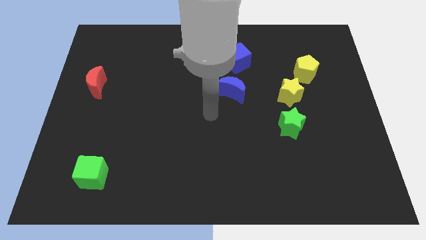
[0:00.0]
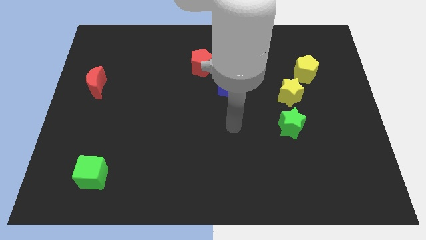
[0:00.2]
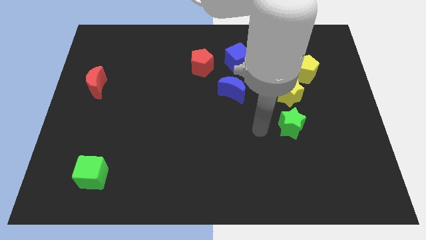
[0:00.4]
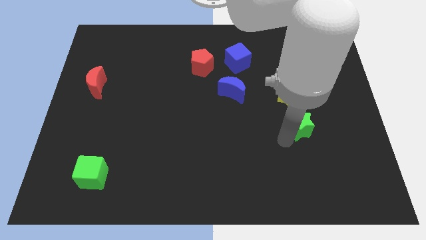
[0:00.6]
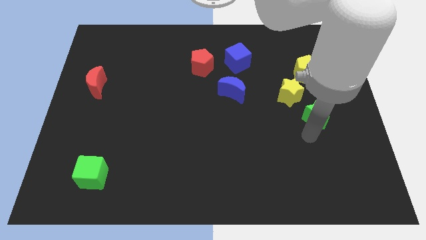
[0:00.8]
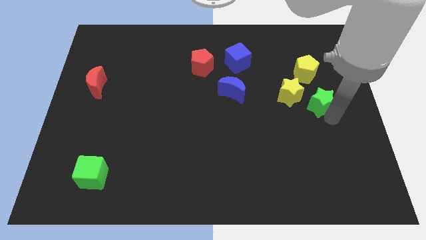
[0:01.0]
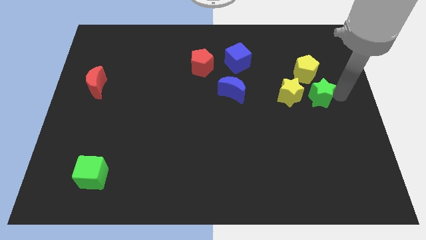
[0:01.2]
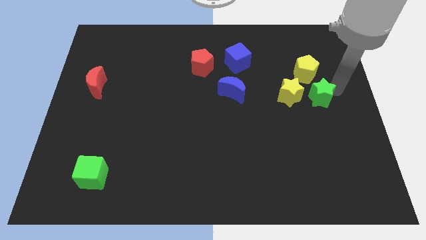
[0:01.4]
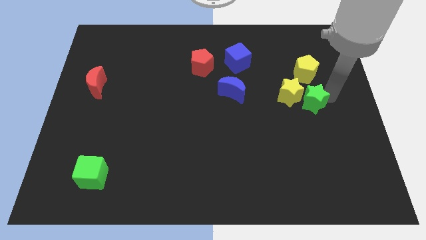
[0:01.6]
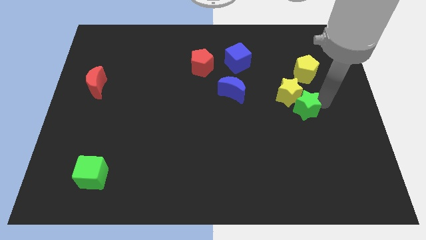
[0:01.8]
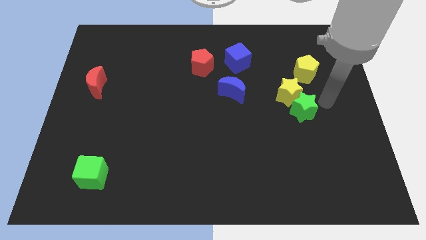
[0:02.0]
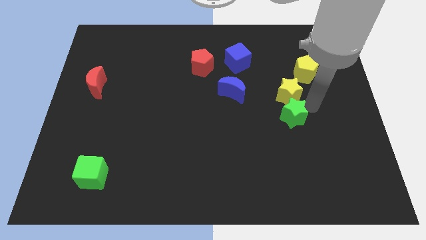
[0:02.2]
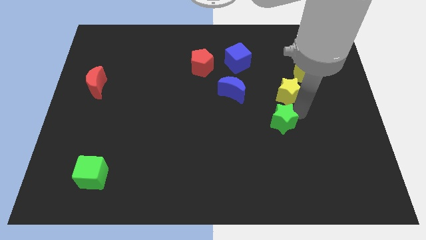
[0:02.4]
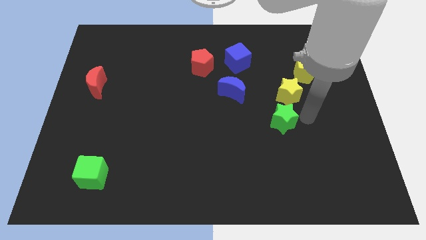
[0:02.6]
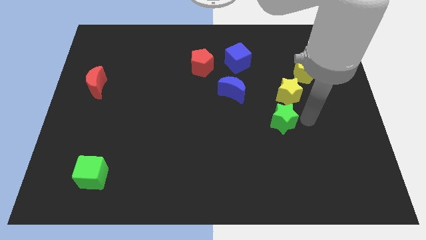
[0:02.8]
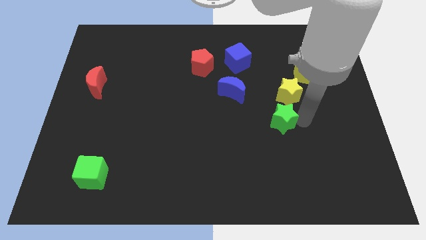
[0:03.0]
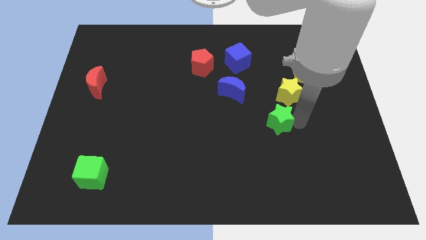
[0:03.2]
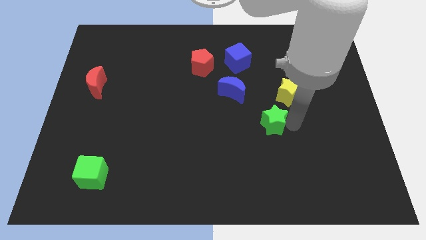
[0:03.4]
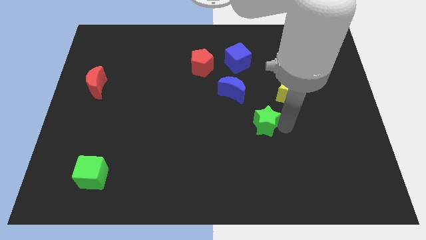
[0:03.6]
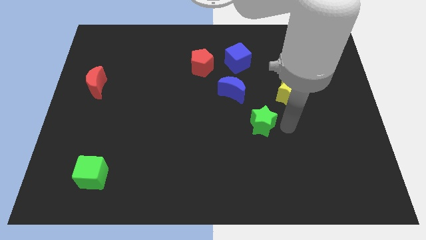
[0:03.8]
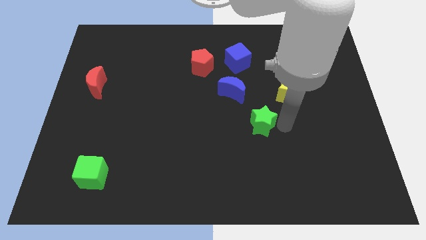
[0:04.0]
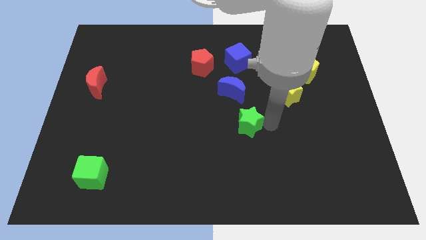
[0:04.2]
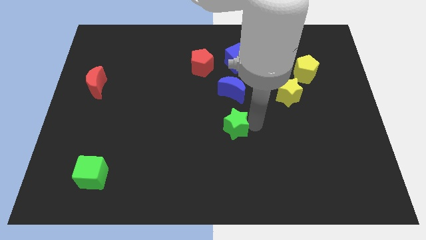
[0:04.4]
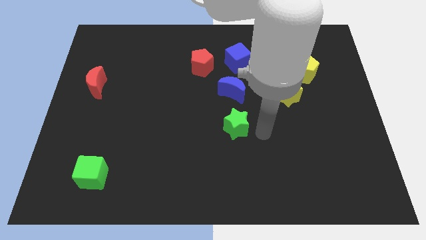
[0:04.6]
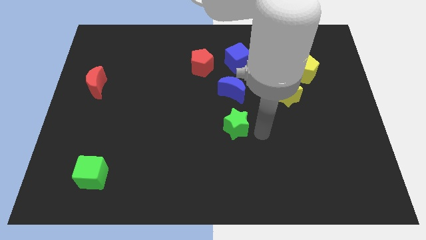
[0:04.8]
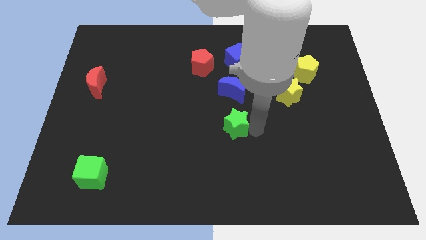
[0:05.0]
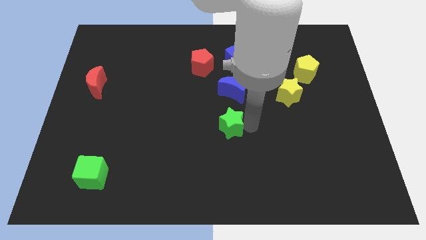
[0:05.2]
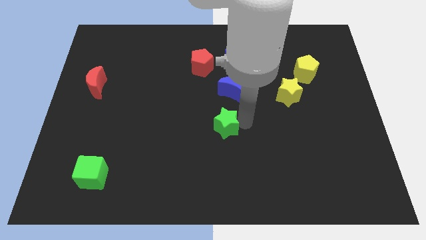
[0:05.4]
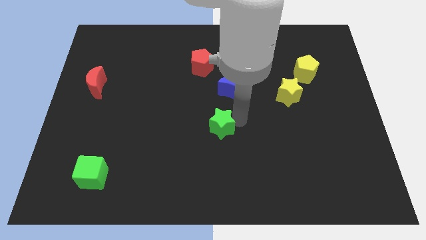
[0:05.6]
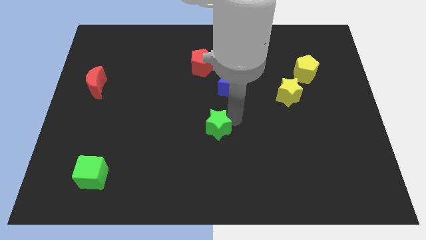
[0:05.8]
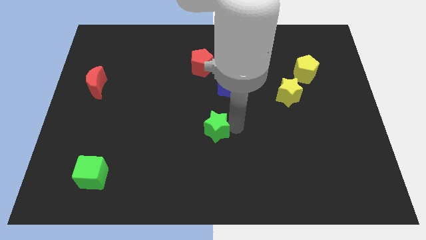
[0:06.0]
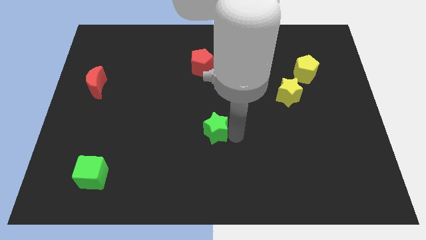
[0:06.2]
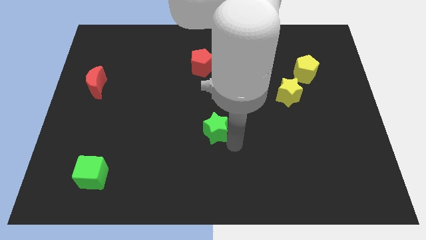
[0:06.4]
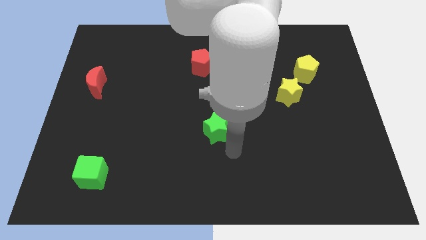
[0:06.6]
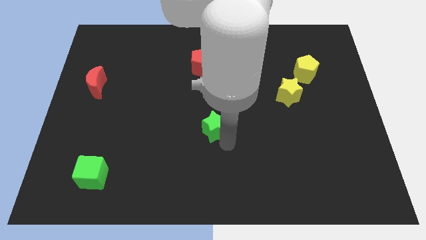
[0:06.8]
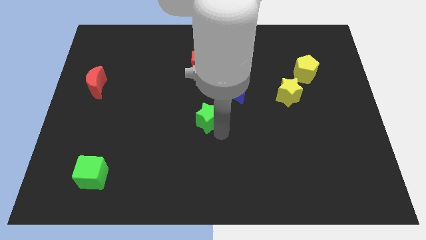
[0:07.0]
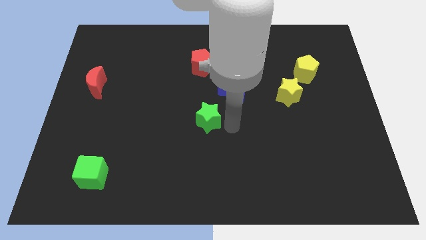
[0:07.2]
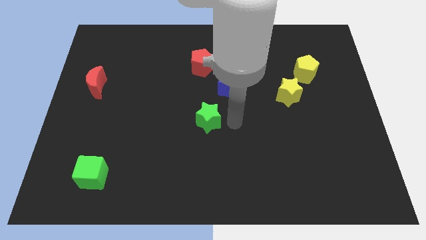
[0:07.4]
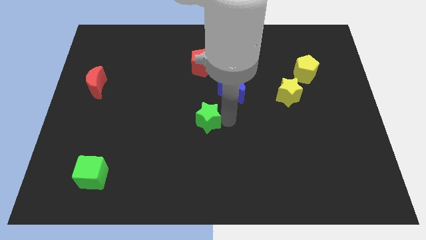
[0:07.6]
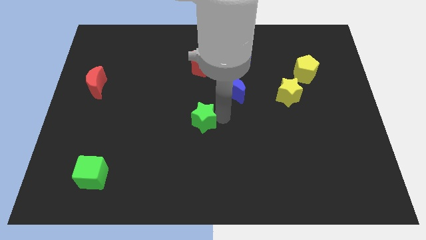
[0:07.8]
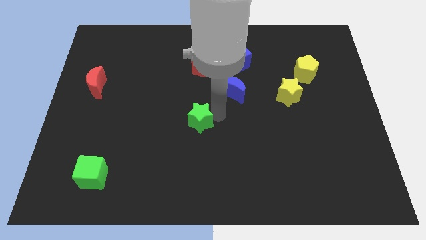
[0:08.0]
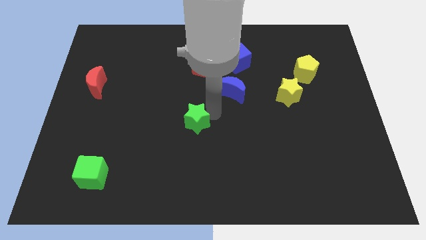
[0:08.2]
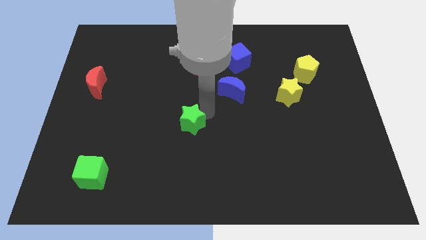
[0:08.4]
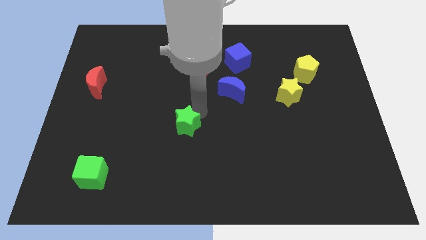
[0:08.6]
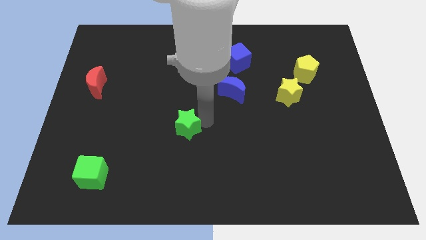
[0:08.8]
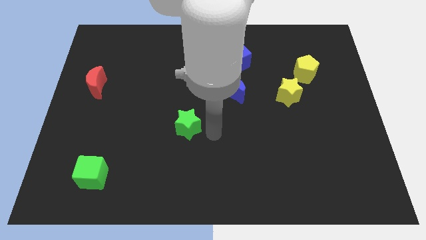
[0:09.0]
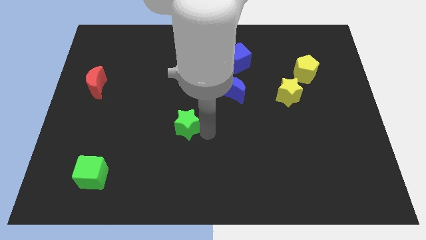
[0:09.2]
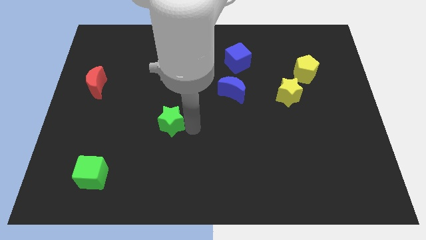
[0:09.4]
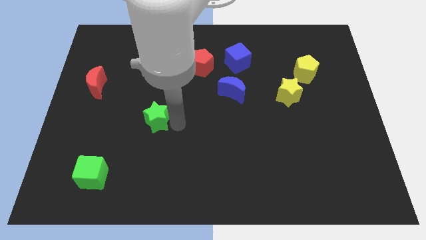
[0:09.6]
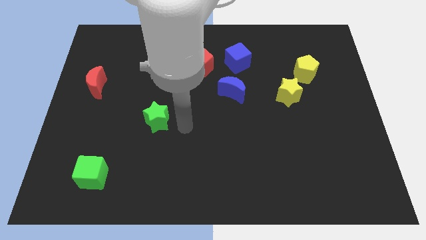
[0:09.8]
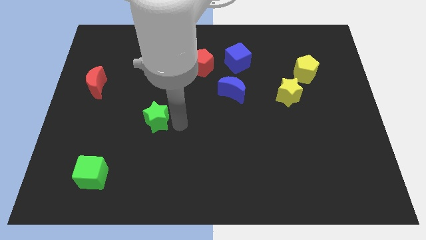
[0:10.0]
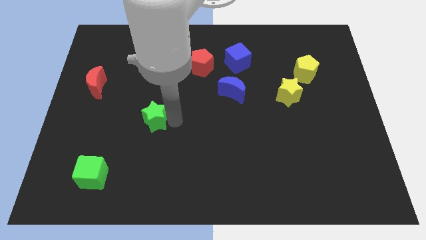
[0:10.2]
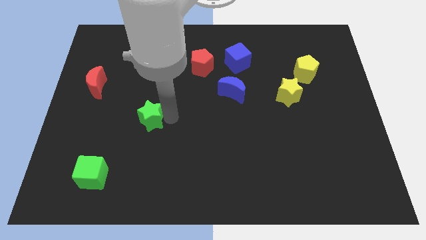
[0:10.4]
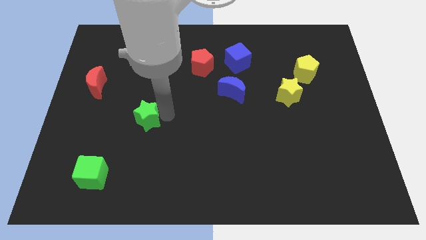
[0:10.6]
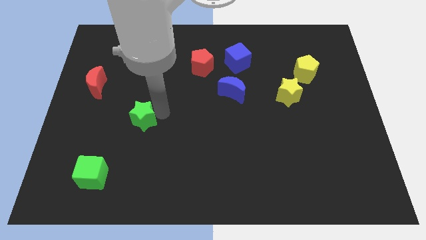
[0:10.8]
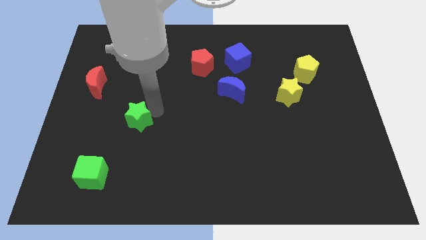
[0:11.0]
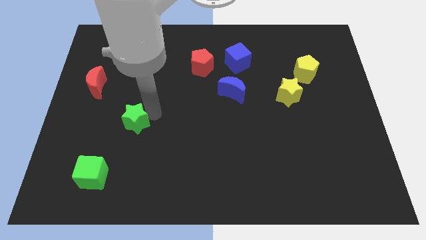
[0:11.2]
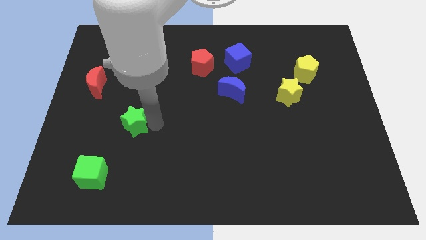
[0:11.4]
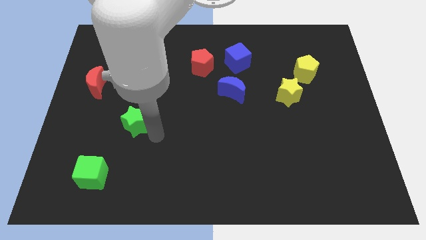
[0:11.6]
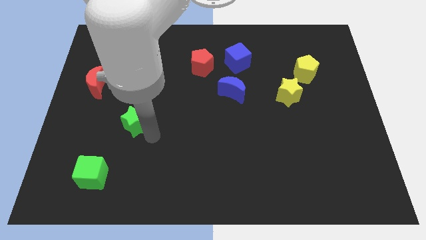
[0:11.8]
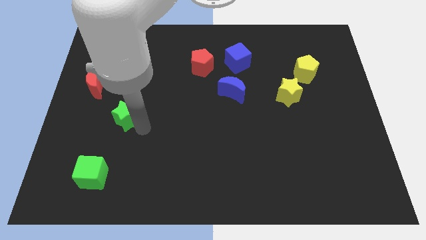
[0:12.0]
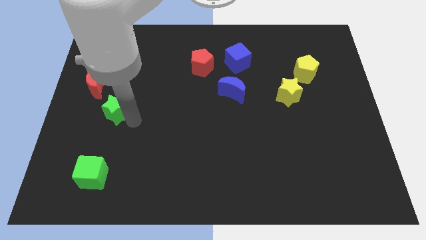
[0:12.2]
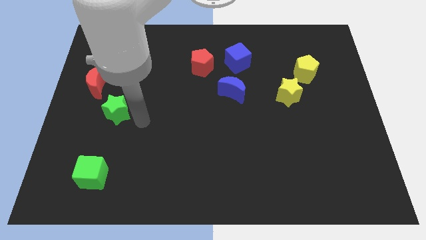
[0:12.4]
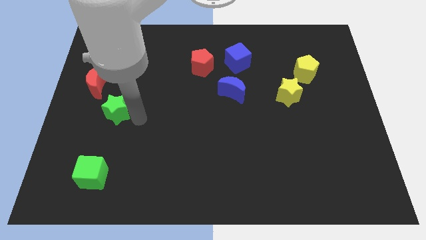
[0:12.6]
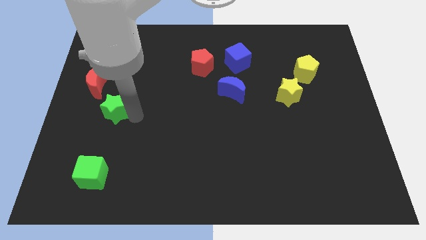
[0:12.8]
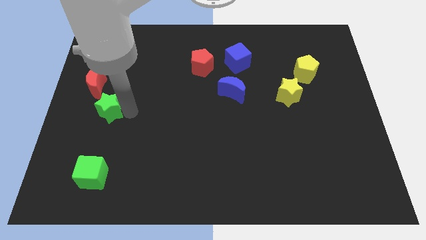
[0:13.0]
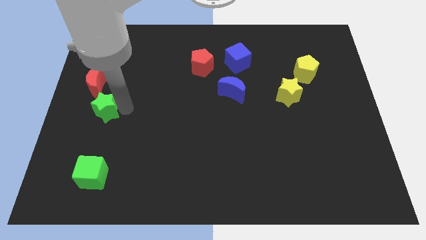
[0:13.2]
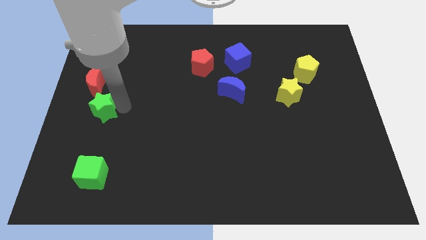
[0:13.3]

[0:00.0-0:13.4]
move the green star to the left side of the board

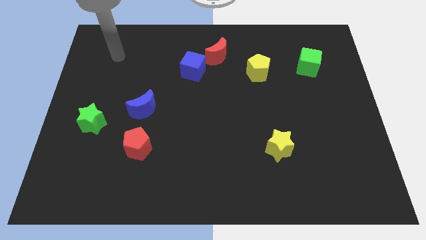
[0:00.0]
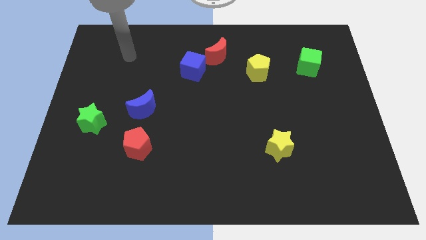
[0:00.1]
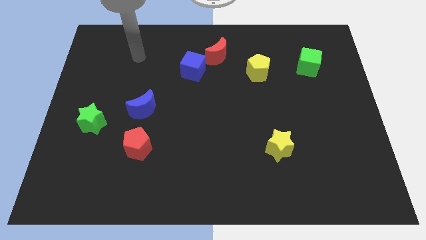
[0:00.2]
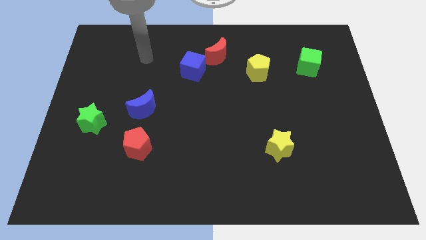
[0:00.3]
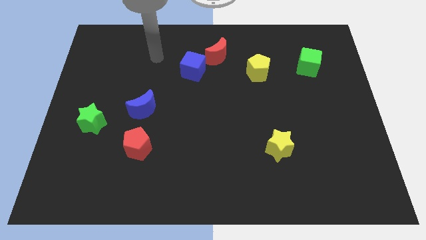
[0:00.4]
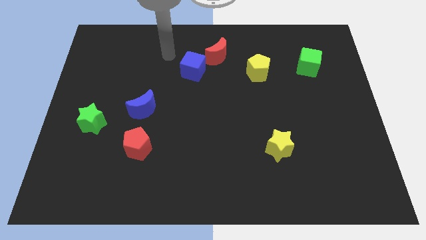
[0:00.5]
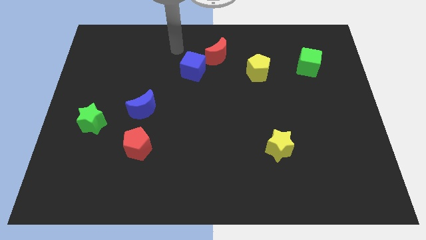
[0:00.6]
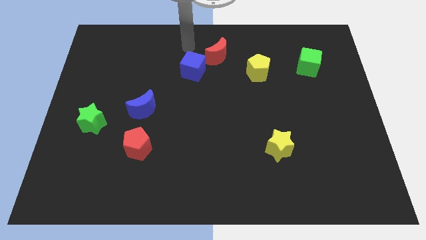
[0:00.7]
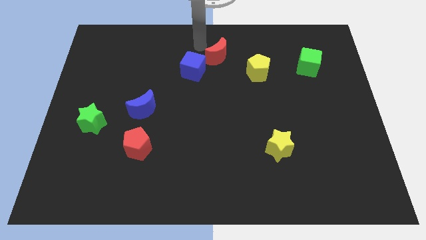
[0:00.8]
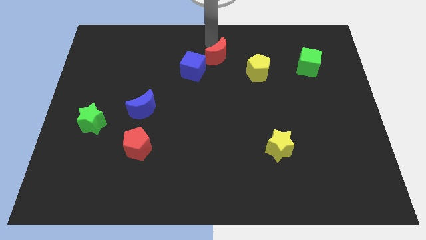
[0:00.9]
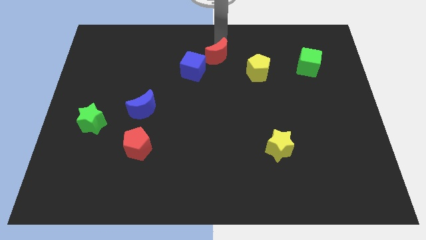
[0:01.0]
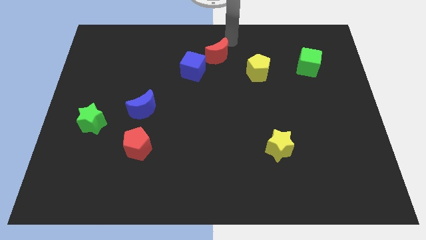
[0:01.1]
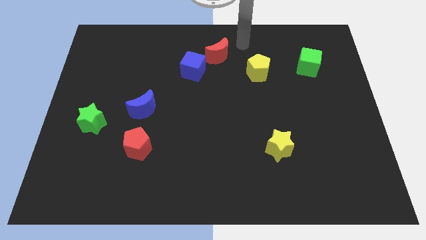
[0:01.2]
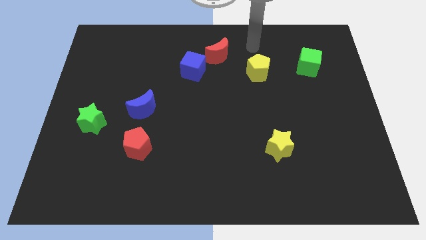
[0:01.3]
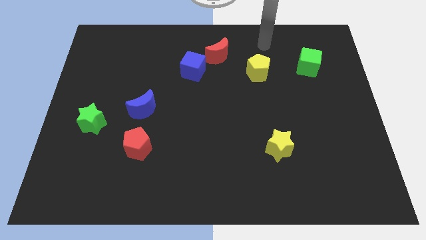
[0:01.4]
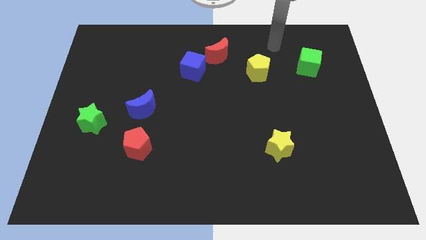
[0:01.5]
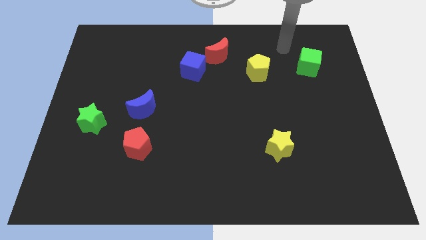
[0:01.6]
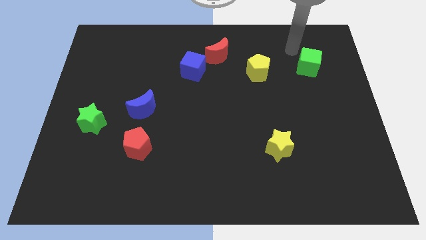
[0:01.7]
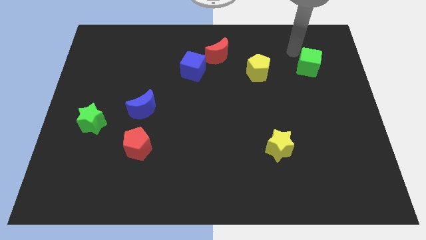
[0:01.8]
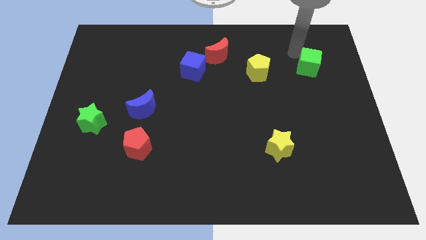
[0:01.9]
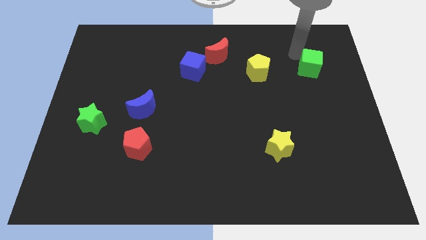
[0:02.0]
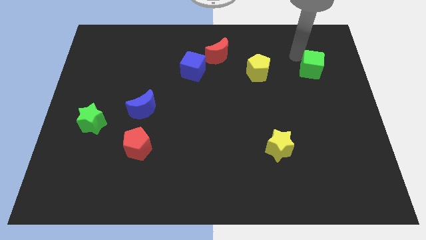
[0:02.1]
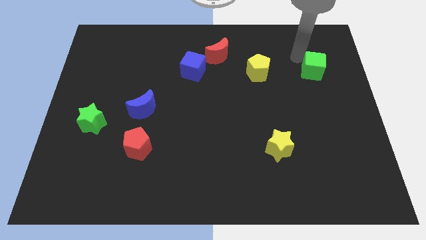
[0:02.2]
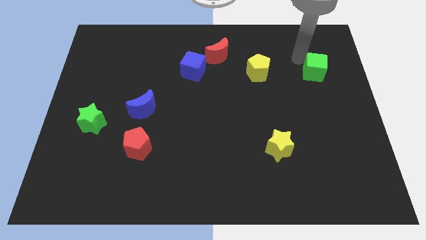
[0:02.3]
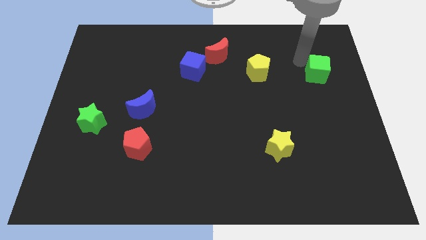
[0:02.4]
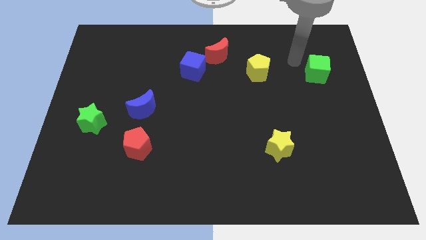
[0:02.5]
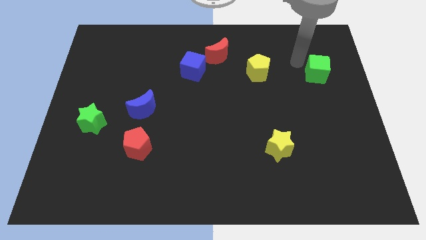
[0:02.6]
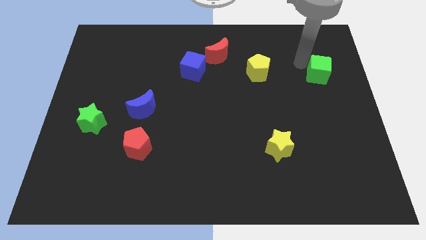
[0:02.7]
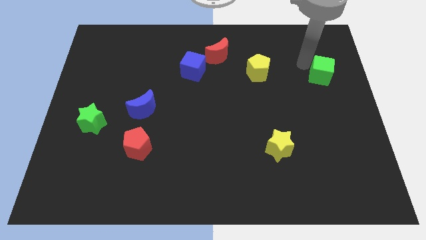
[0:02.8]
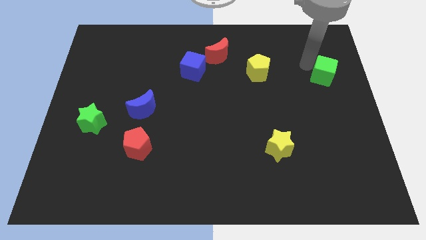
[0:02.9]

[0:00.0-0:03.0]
slide the green cube to the center right
